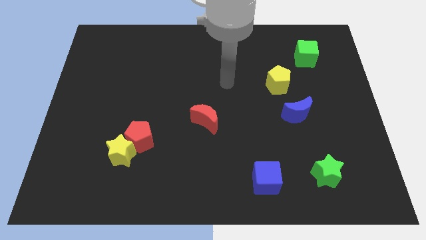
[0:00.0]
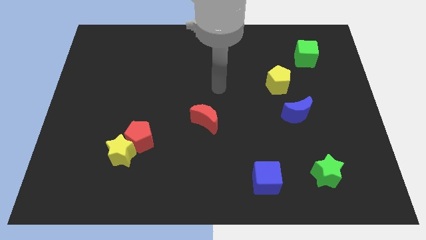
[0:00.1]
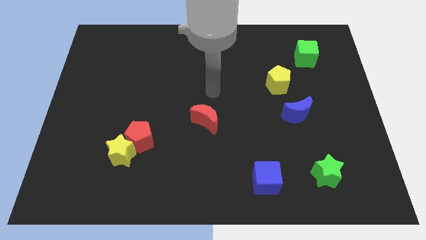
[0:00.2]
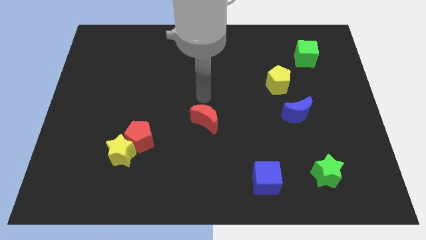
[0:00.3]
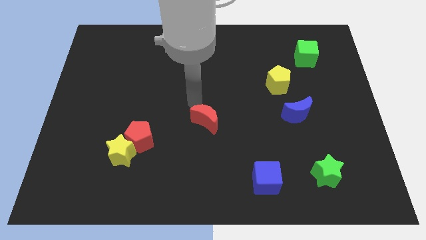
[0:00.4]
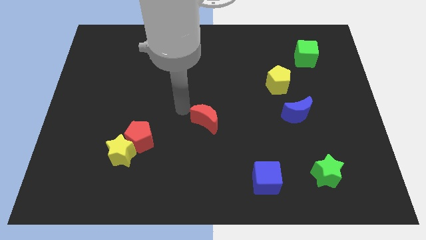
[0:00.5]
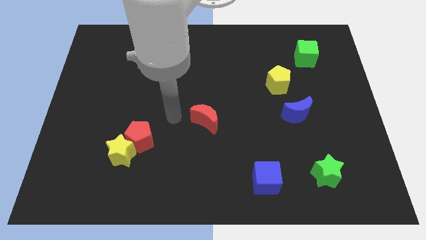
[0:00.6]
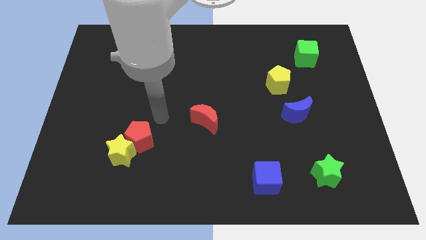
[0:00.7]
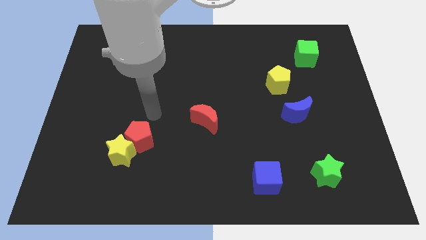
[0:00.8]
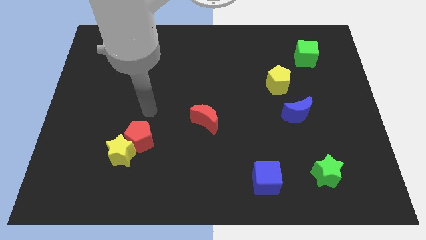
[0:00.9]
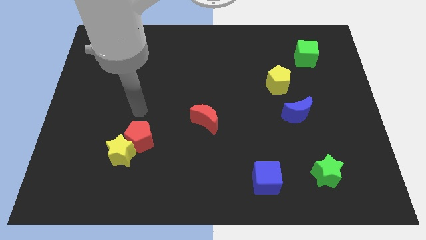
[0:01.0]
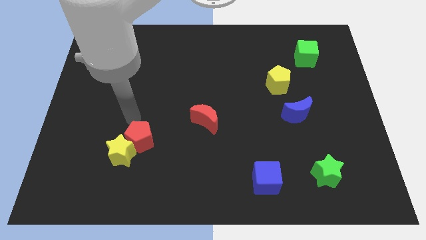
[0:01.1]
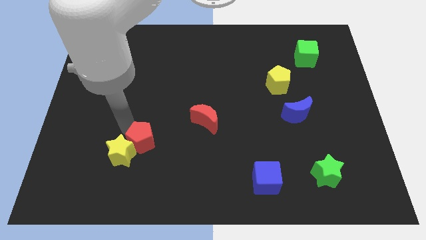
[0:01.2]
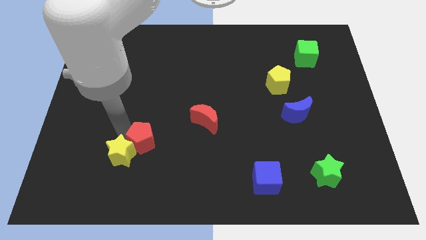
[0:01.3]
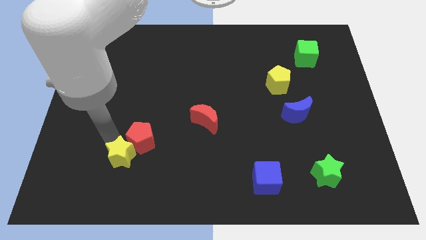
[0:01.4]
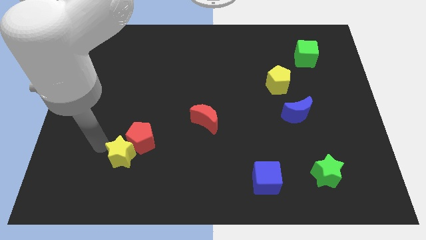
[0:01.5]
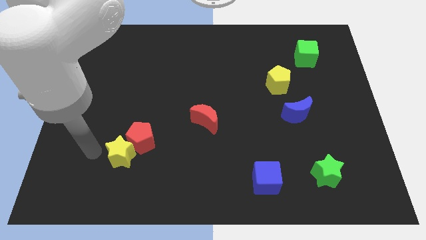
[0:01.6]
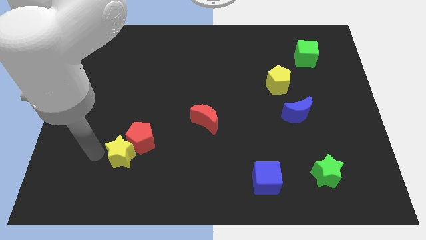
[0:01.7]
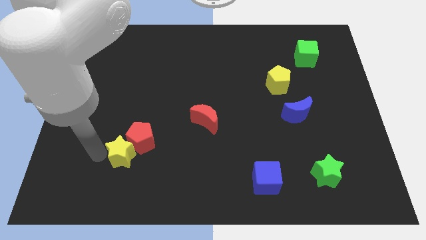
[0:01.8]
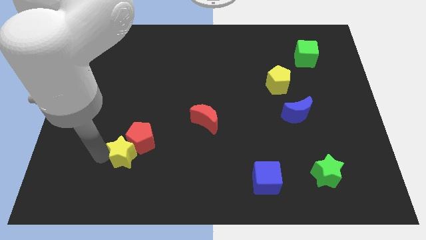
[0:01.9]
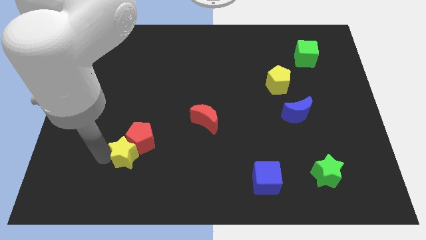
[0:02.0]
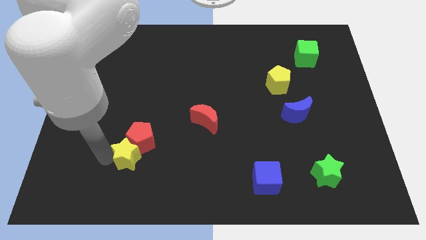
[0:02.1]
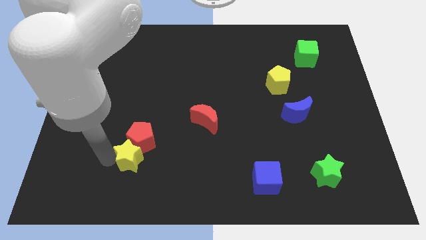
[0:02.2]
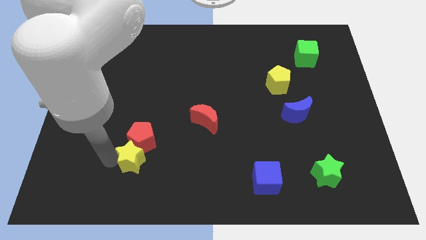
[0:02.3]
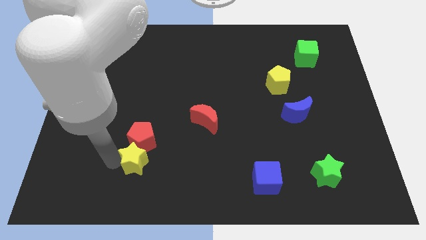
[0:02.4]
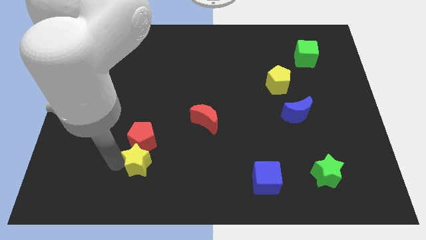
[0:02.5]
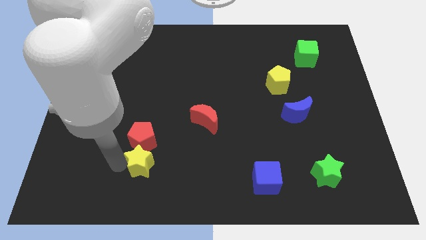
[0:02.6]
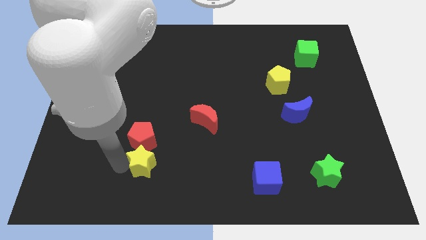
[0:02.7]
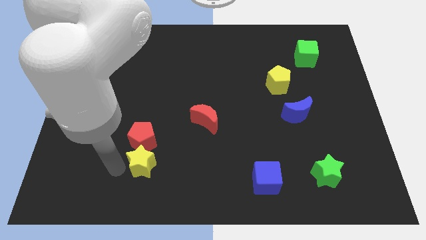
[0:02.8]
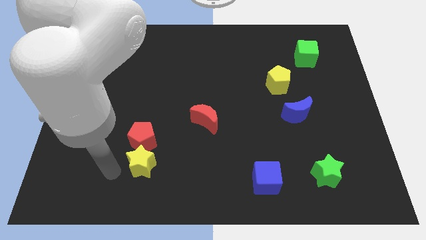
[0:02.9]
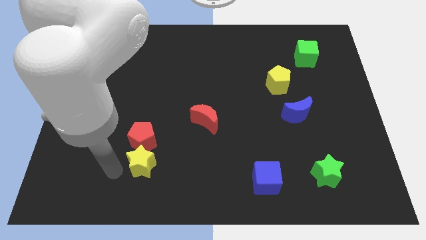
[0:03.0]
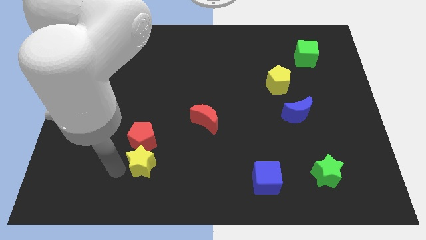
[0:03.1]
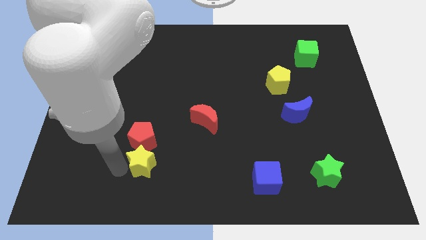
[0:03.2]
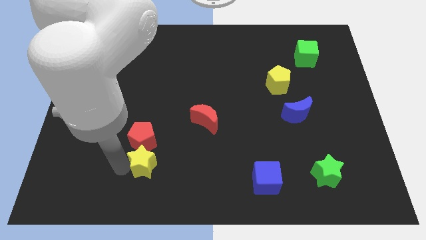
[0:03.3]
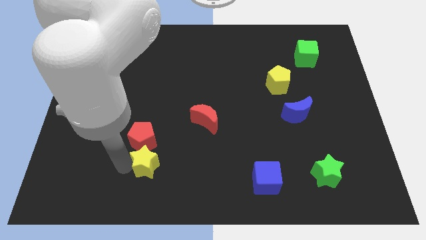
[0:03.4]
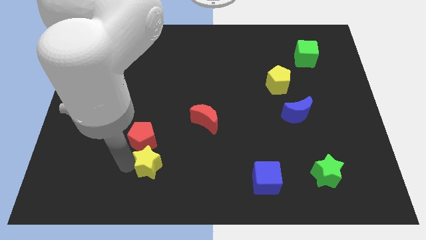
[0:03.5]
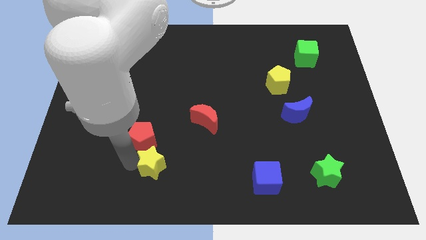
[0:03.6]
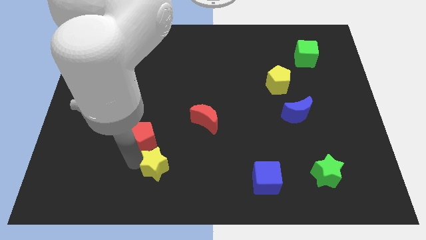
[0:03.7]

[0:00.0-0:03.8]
slightly push the yellow star to the right

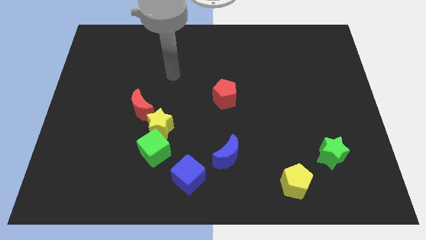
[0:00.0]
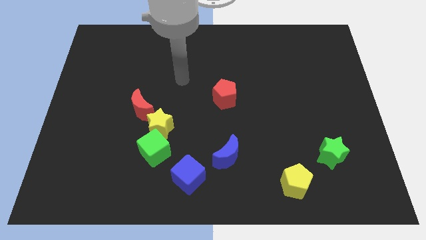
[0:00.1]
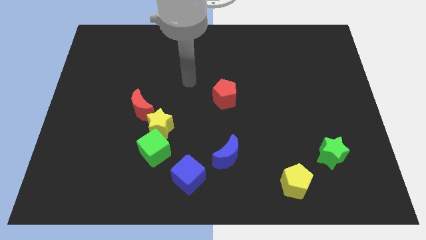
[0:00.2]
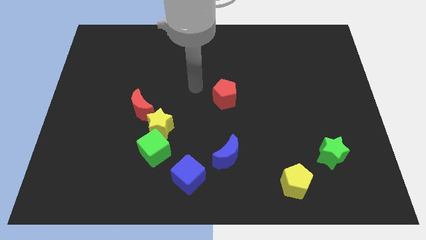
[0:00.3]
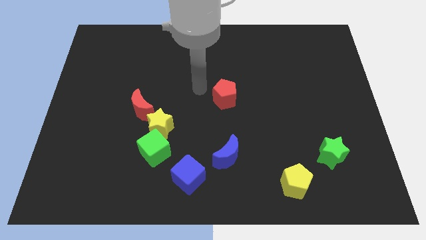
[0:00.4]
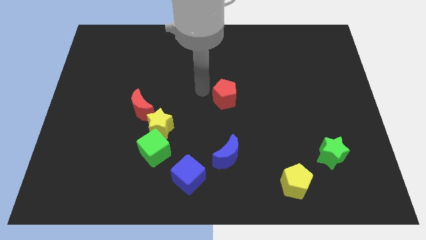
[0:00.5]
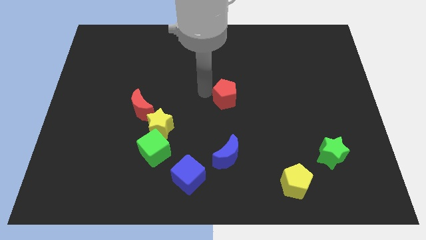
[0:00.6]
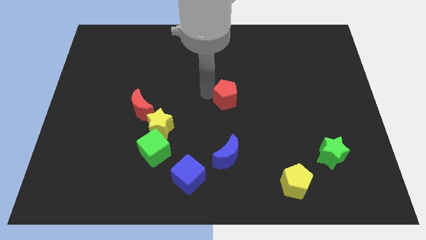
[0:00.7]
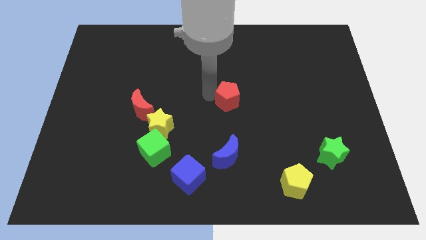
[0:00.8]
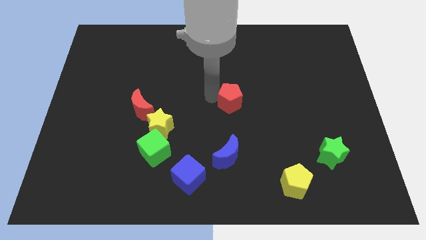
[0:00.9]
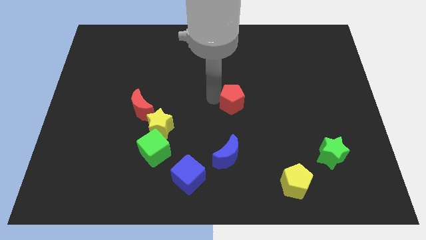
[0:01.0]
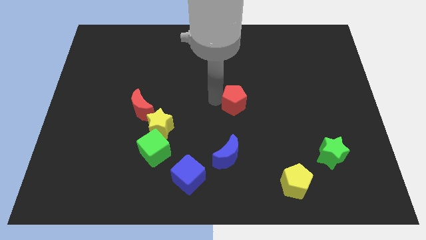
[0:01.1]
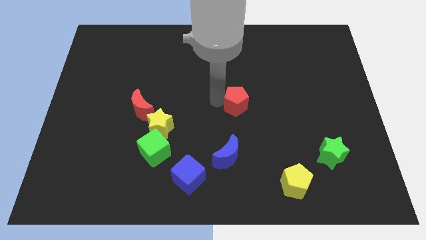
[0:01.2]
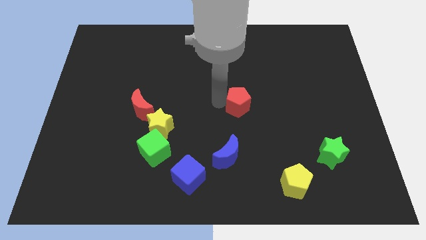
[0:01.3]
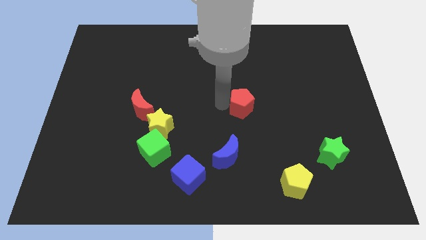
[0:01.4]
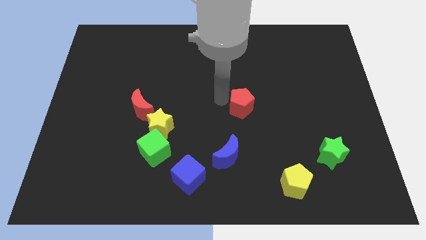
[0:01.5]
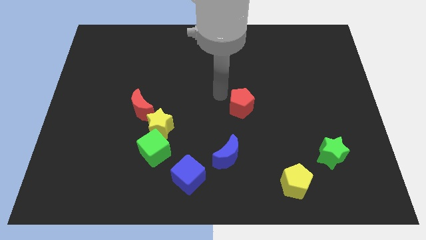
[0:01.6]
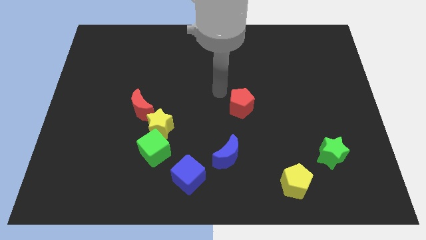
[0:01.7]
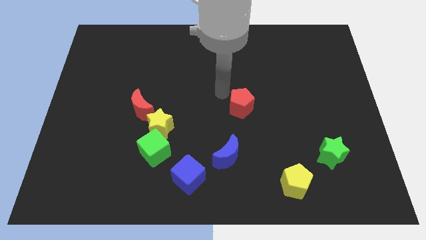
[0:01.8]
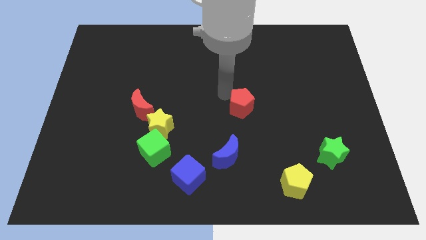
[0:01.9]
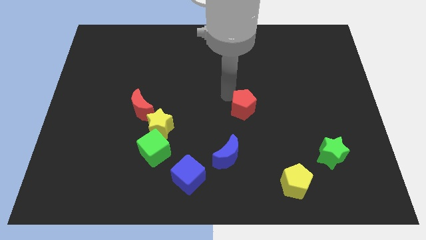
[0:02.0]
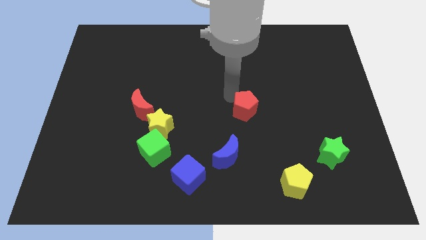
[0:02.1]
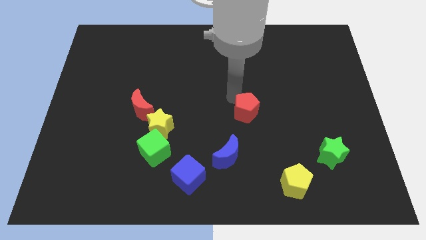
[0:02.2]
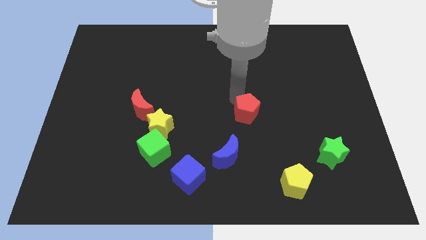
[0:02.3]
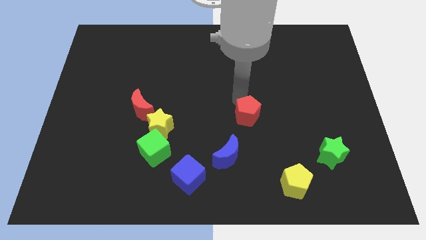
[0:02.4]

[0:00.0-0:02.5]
slide the red pentagon a bit downwards and right

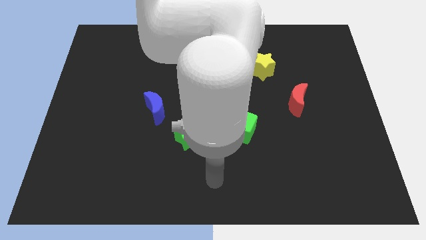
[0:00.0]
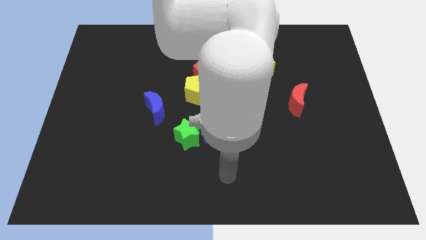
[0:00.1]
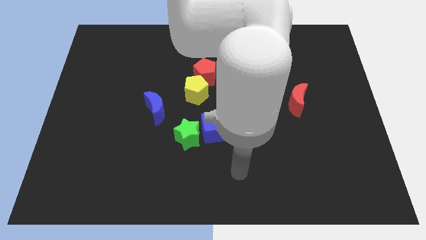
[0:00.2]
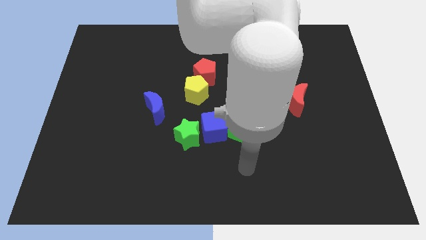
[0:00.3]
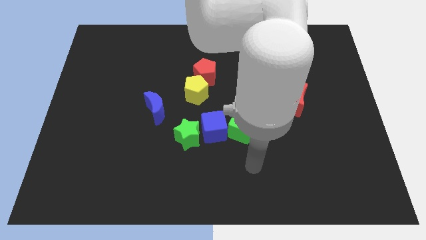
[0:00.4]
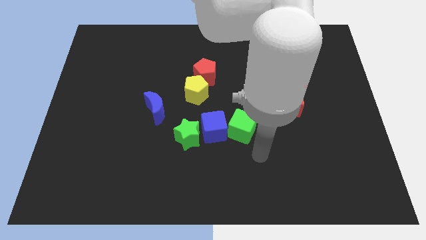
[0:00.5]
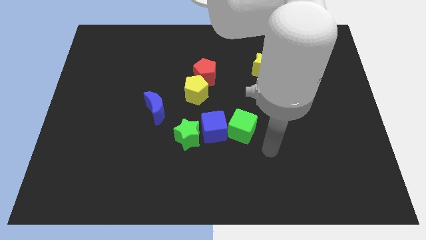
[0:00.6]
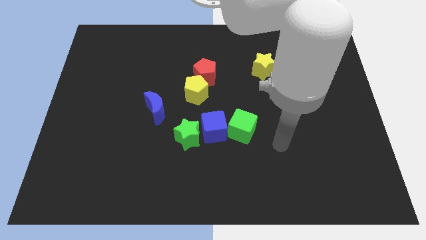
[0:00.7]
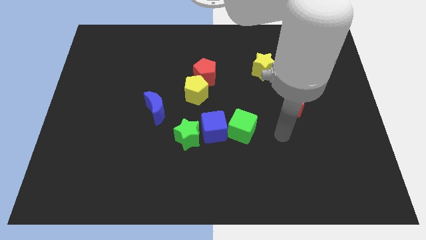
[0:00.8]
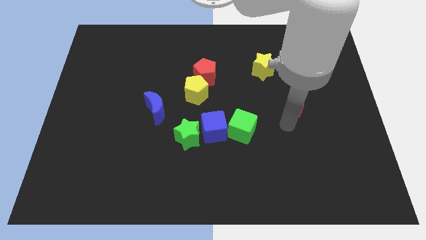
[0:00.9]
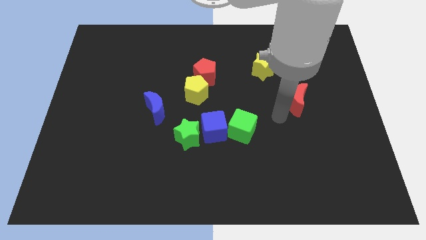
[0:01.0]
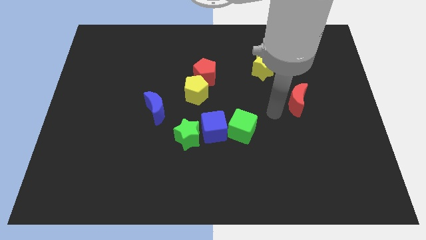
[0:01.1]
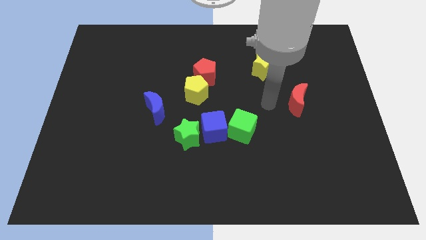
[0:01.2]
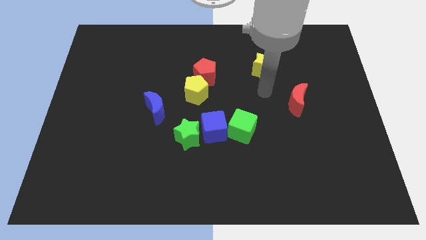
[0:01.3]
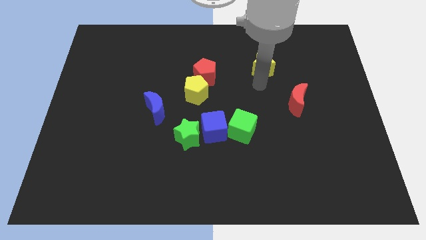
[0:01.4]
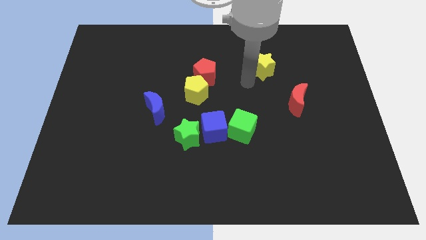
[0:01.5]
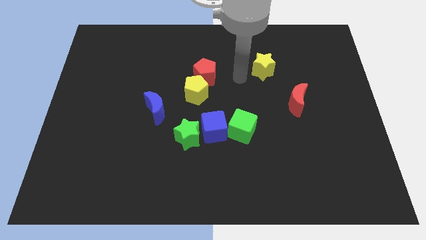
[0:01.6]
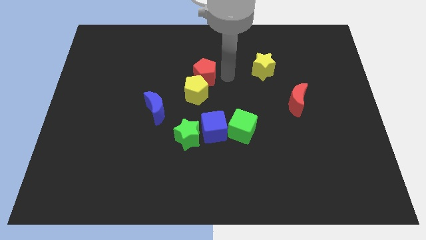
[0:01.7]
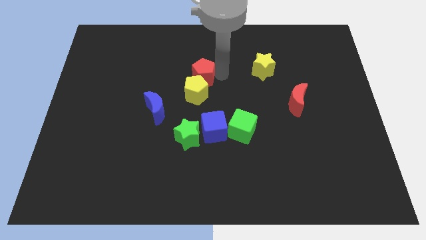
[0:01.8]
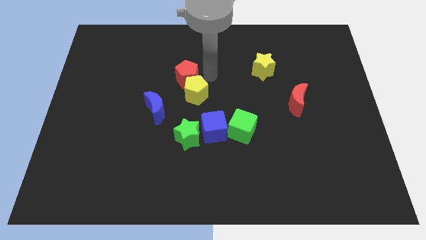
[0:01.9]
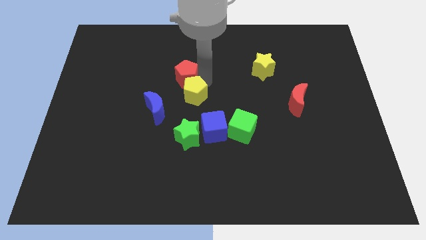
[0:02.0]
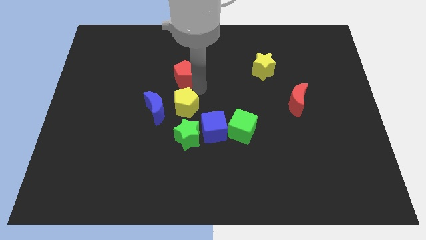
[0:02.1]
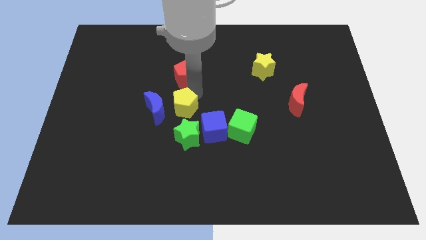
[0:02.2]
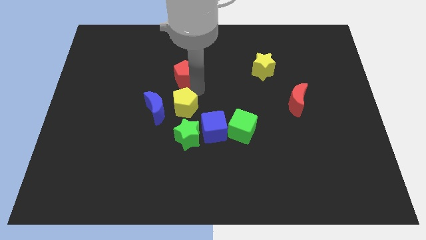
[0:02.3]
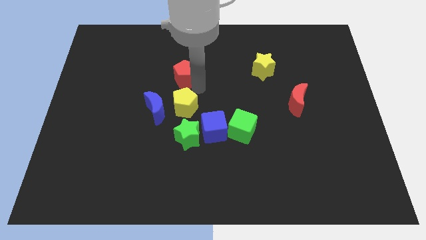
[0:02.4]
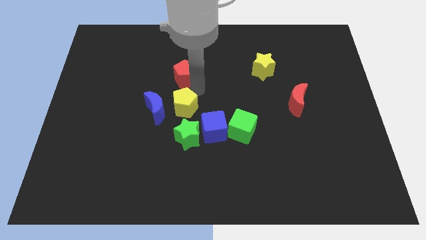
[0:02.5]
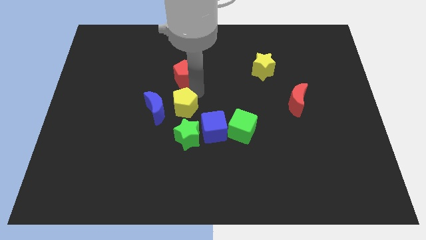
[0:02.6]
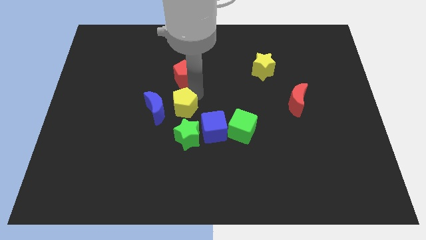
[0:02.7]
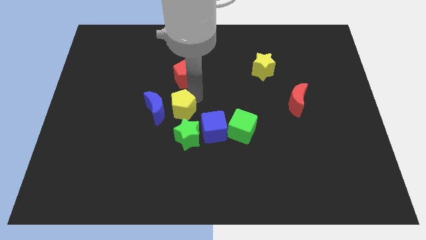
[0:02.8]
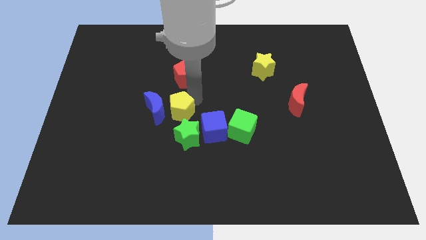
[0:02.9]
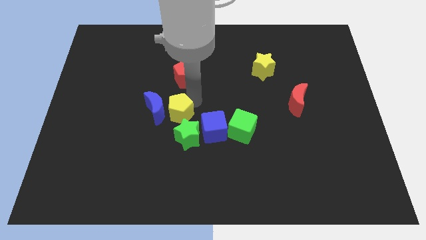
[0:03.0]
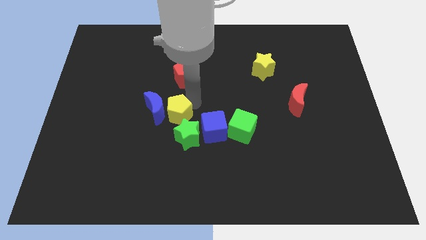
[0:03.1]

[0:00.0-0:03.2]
slightly move the yellow pentagon downwards and left
